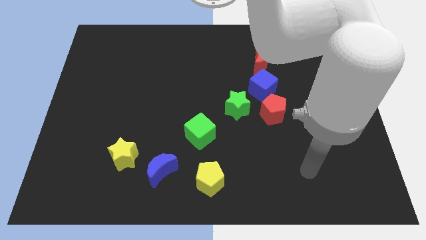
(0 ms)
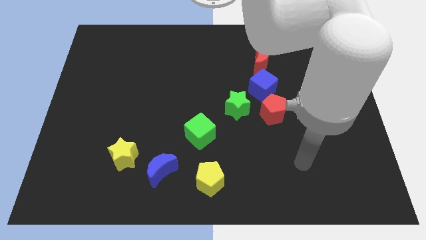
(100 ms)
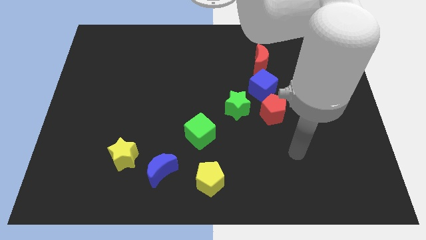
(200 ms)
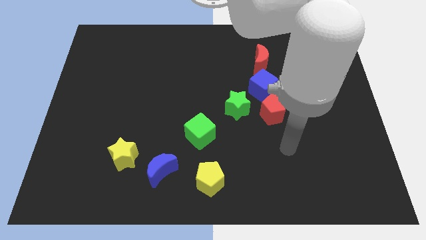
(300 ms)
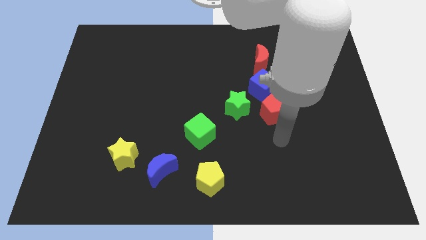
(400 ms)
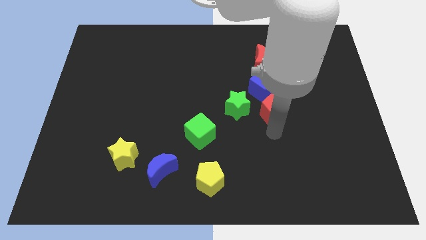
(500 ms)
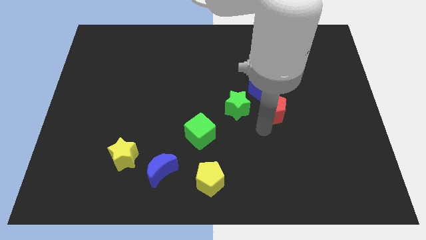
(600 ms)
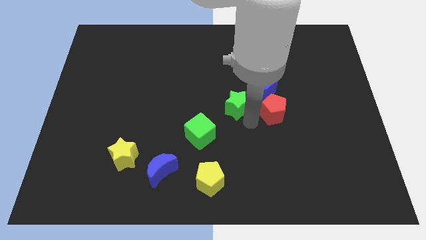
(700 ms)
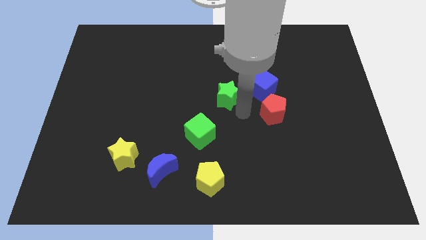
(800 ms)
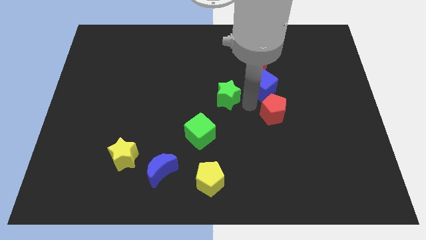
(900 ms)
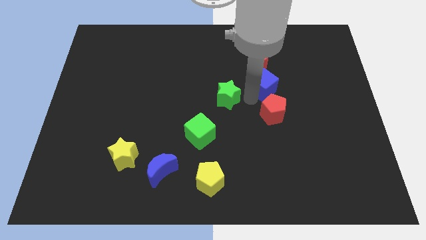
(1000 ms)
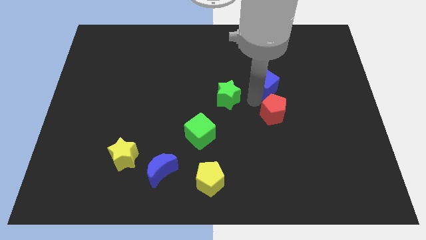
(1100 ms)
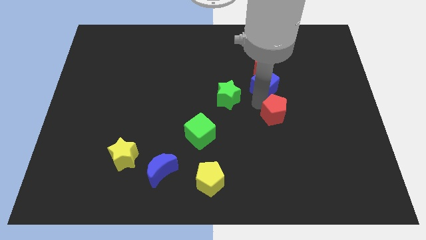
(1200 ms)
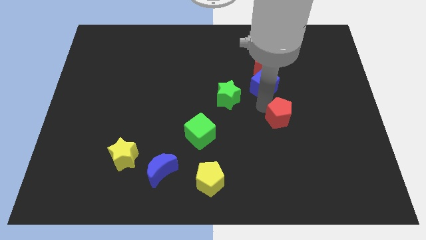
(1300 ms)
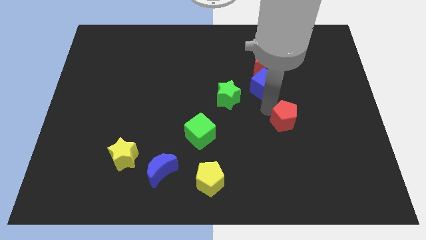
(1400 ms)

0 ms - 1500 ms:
separate the red pentagon from the blue cube and green star

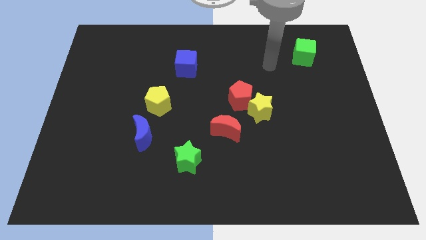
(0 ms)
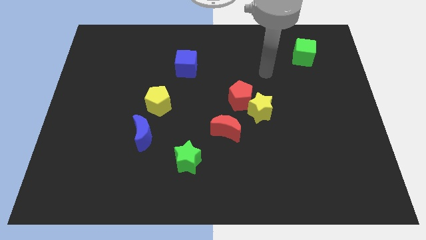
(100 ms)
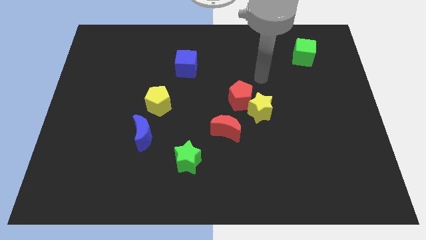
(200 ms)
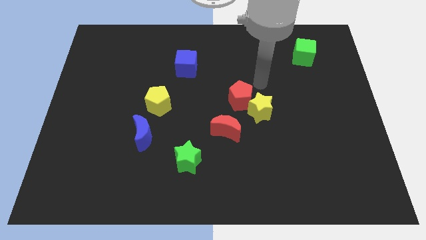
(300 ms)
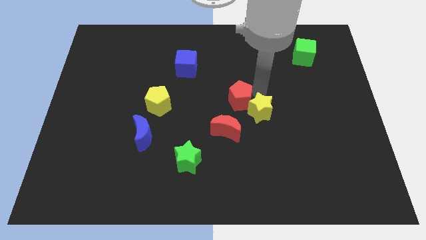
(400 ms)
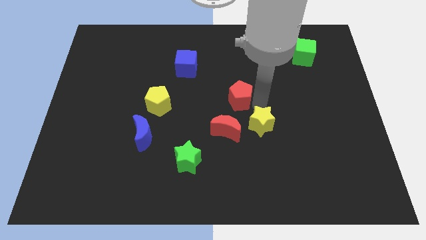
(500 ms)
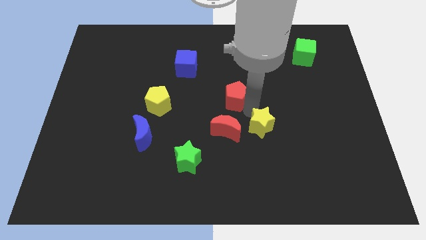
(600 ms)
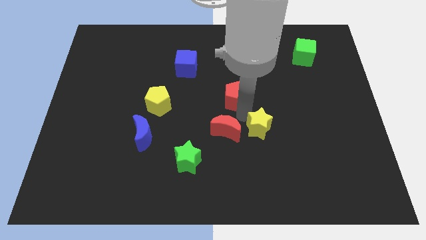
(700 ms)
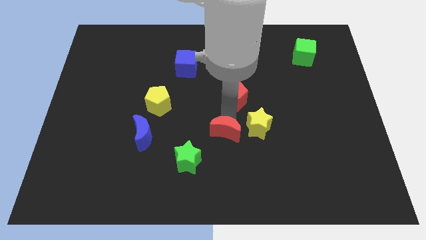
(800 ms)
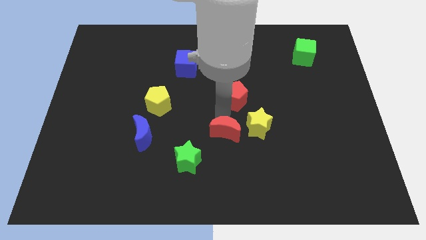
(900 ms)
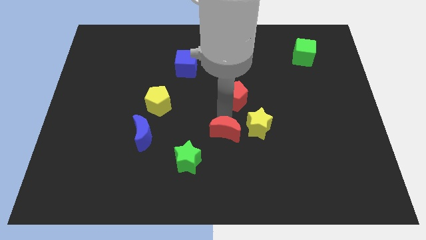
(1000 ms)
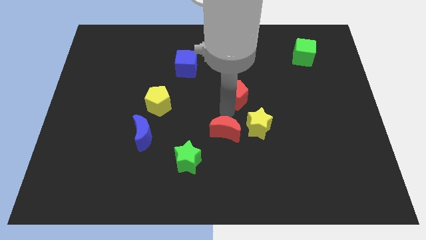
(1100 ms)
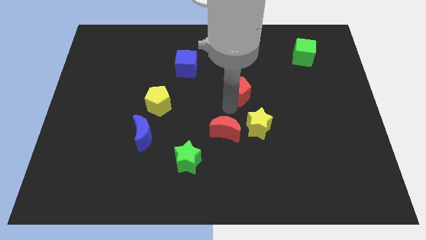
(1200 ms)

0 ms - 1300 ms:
move the red pentagon away from the yellow star and red moon

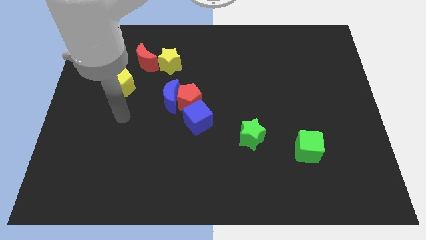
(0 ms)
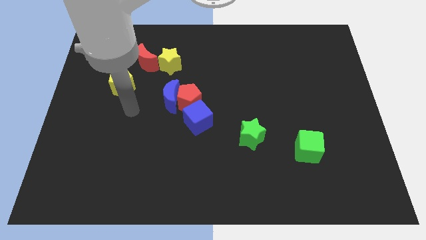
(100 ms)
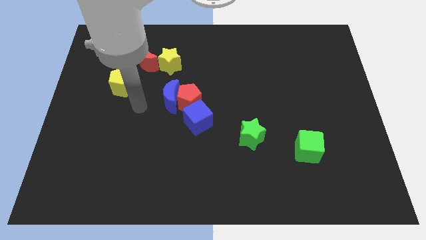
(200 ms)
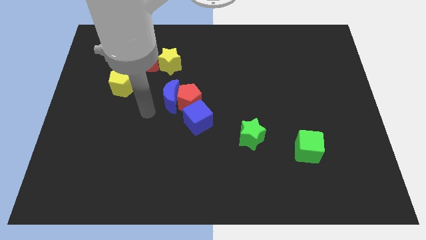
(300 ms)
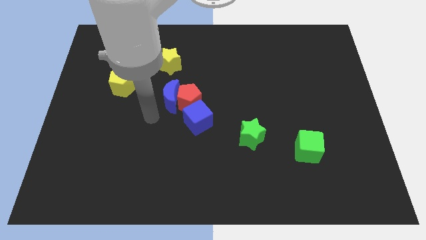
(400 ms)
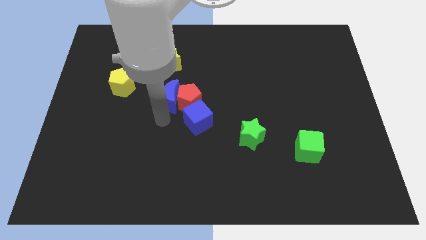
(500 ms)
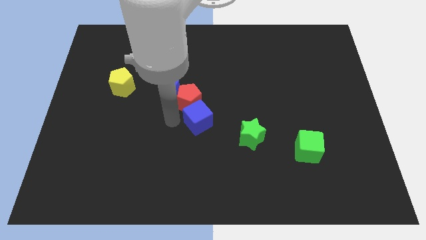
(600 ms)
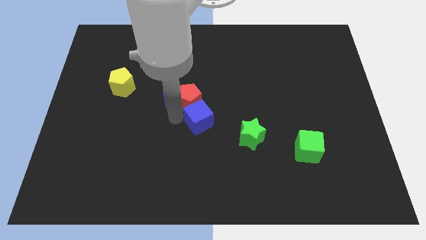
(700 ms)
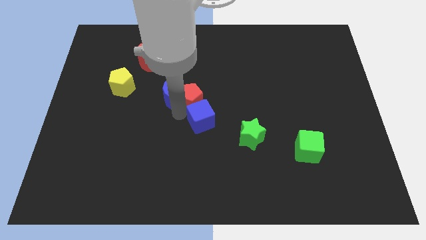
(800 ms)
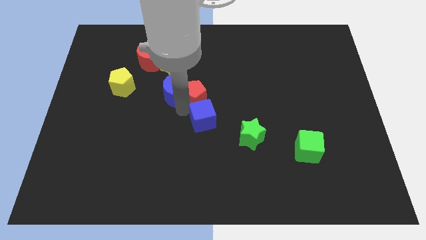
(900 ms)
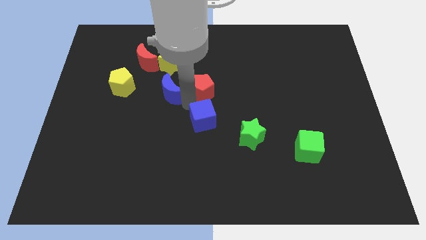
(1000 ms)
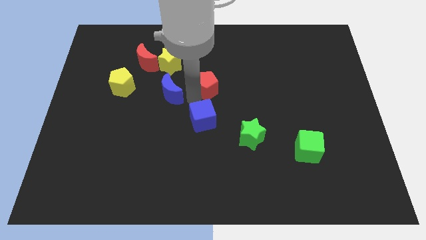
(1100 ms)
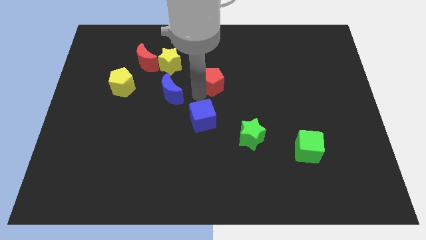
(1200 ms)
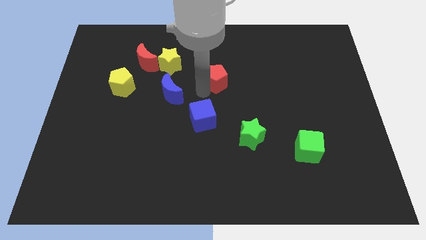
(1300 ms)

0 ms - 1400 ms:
separate the red pentagon from the blue moon and blue cube

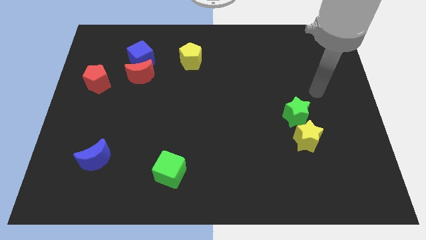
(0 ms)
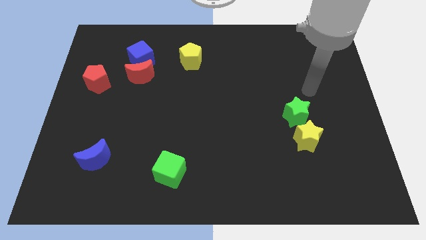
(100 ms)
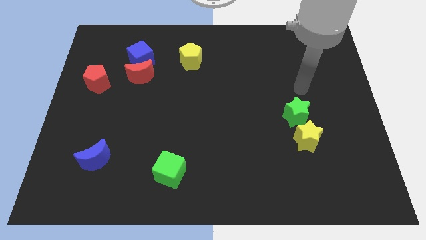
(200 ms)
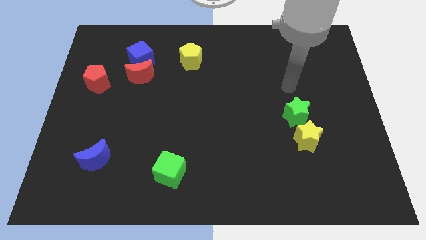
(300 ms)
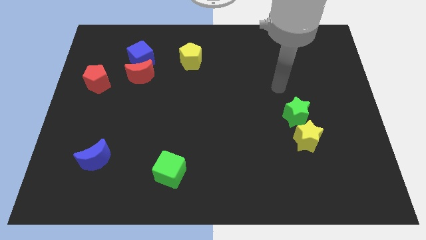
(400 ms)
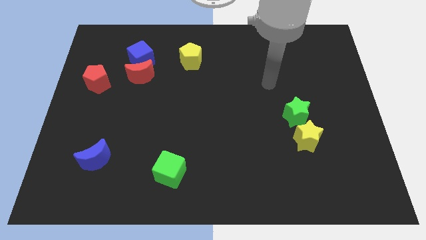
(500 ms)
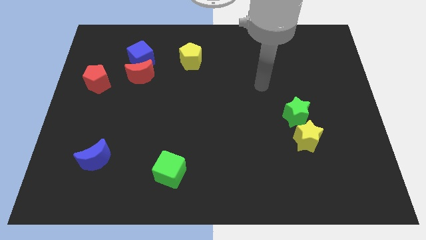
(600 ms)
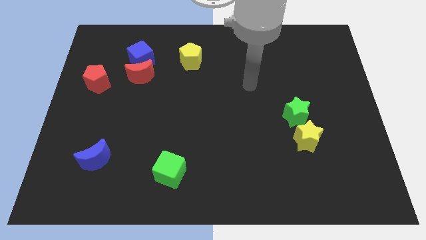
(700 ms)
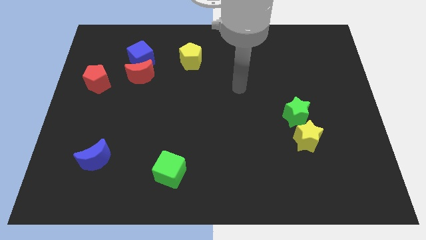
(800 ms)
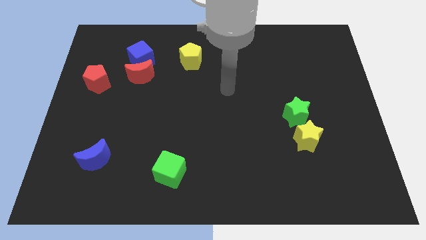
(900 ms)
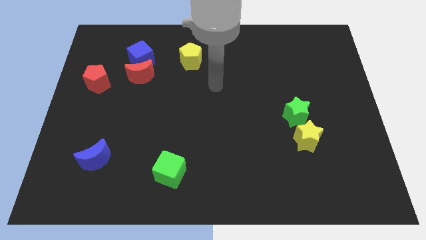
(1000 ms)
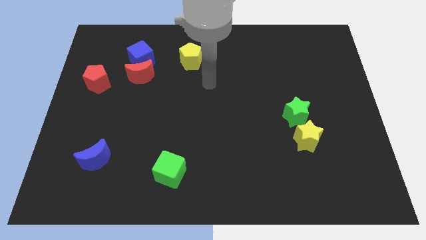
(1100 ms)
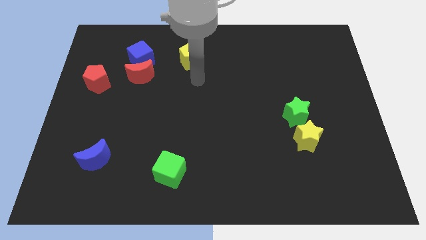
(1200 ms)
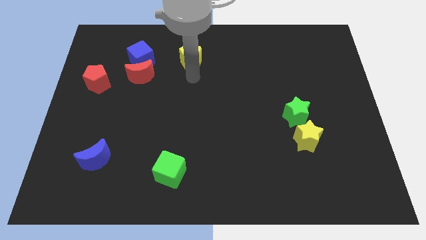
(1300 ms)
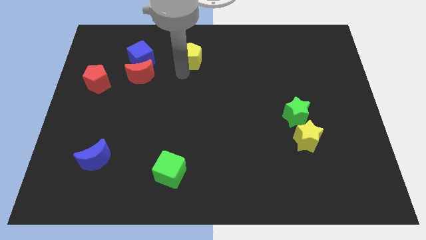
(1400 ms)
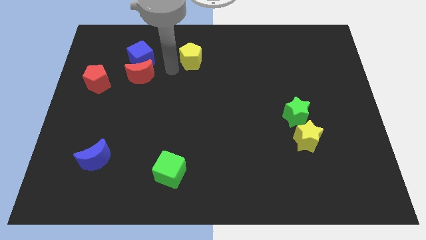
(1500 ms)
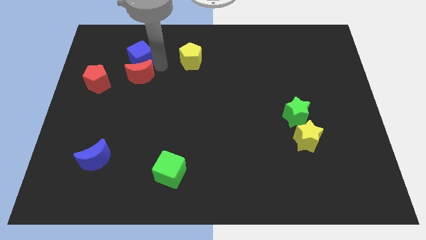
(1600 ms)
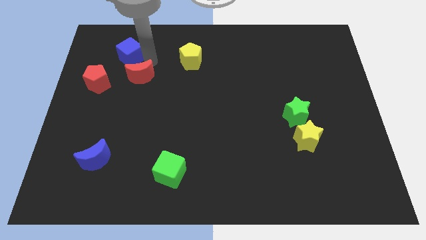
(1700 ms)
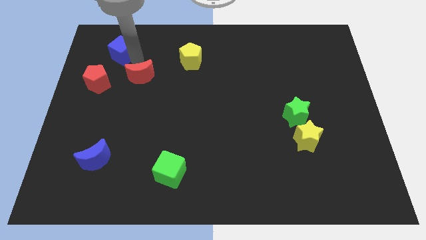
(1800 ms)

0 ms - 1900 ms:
pull the red moon apart from the blue cube

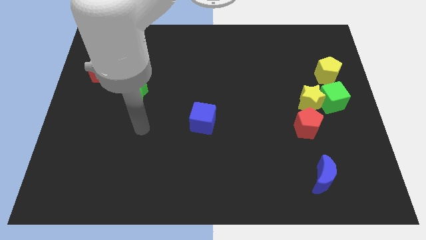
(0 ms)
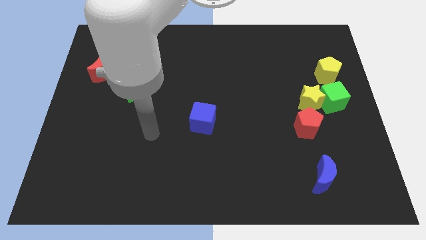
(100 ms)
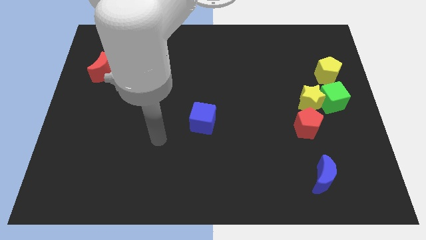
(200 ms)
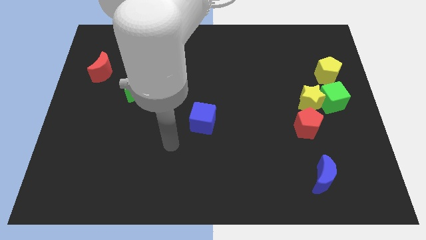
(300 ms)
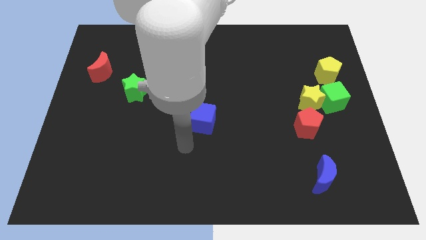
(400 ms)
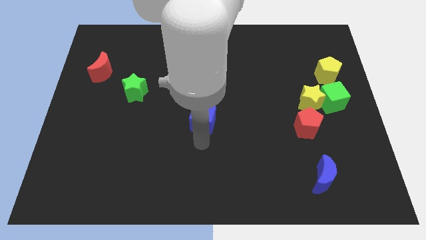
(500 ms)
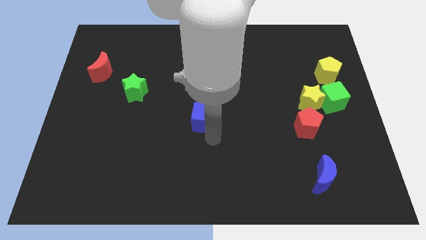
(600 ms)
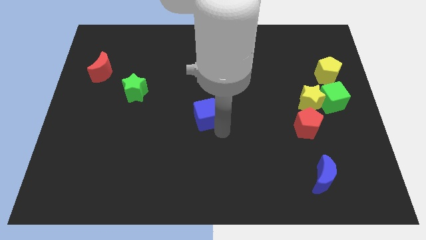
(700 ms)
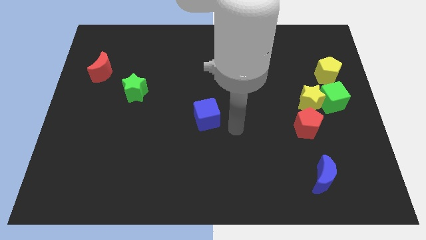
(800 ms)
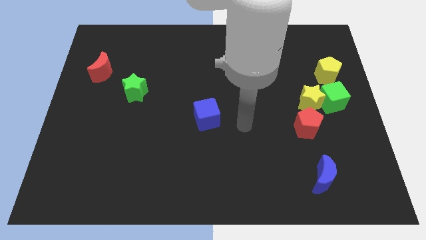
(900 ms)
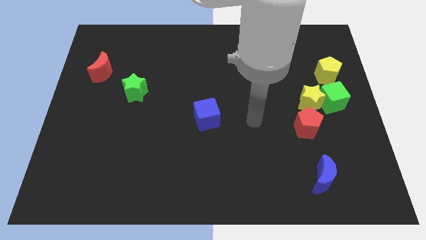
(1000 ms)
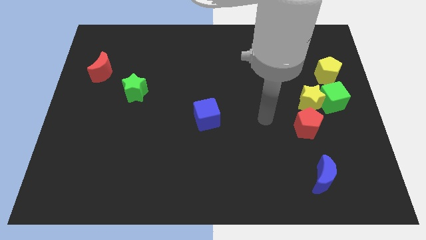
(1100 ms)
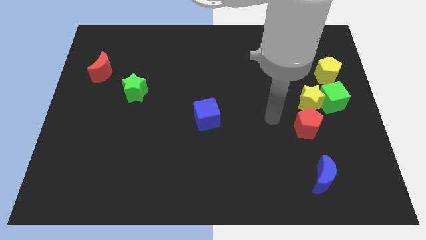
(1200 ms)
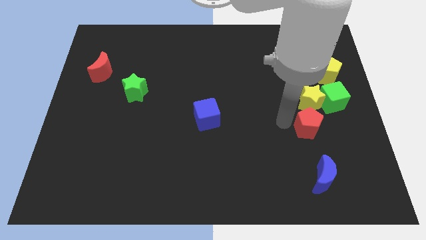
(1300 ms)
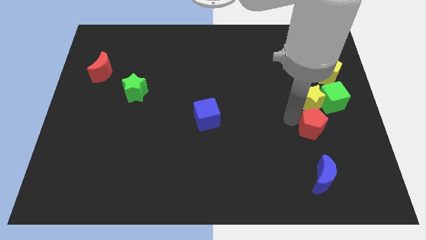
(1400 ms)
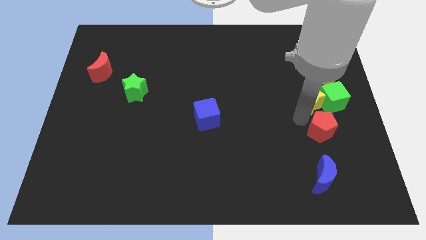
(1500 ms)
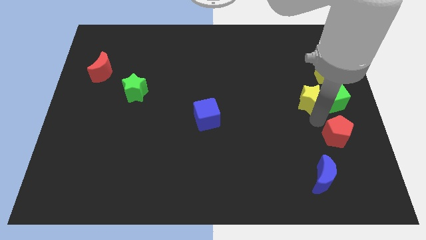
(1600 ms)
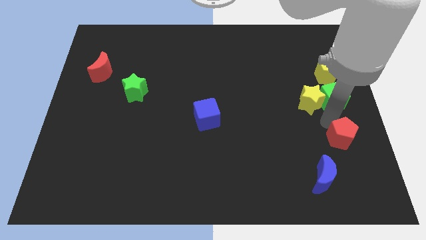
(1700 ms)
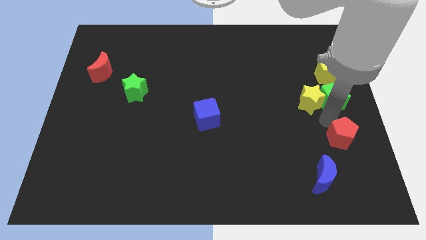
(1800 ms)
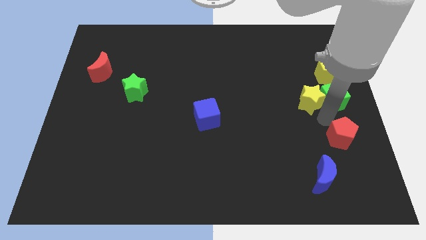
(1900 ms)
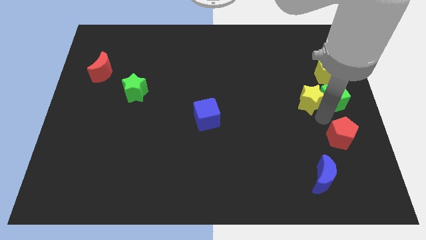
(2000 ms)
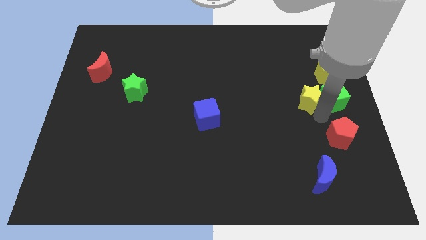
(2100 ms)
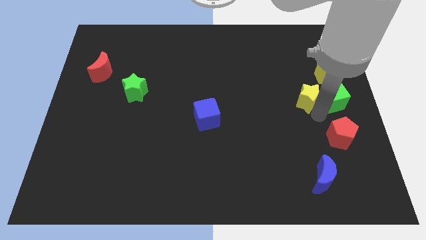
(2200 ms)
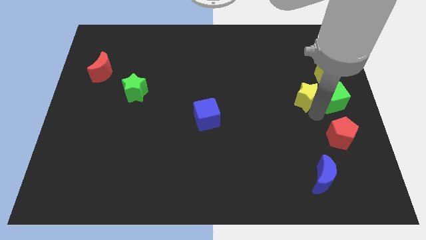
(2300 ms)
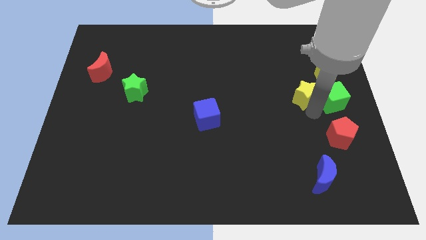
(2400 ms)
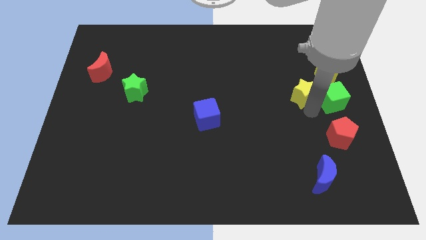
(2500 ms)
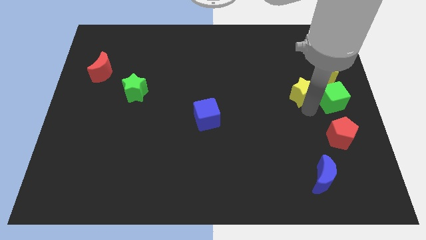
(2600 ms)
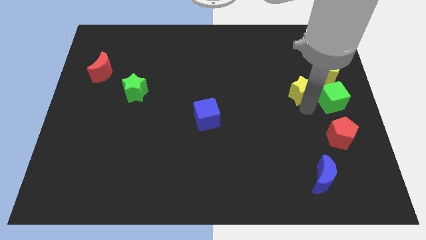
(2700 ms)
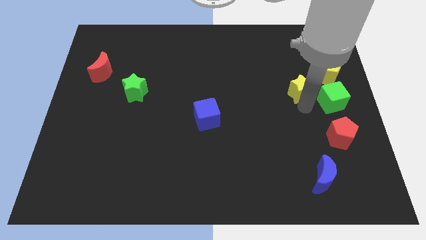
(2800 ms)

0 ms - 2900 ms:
move the yellow star away from the green cube and red pentagon

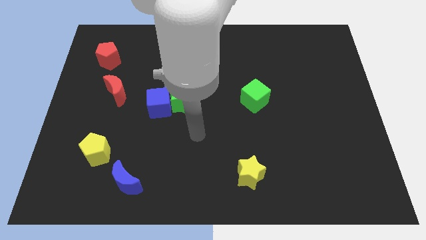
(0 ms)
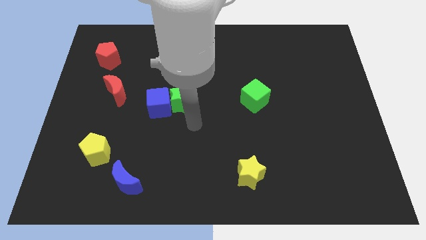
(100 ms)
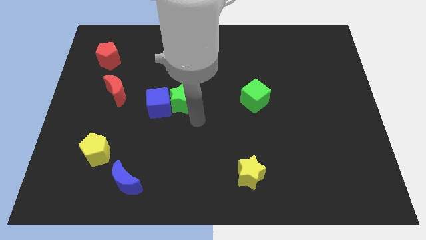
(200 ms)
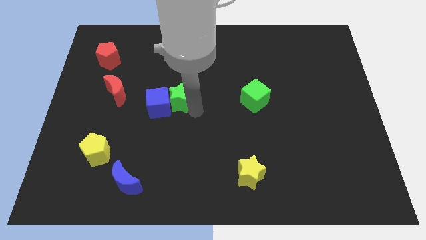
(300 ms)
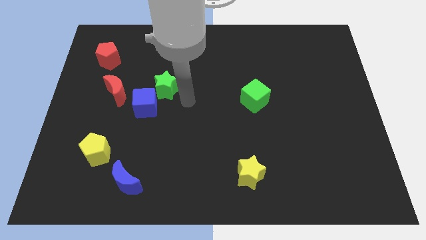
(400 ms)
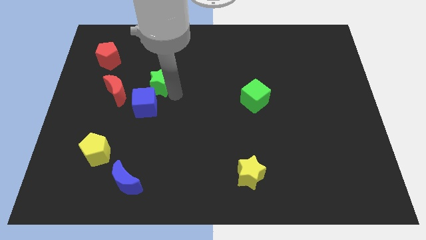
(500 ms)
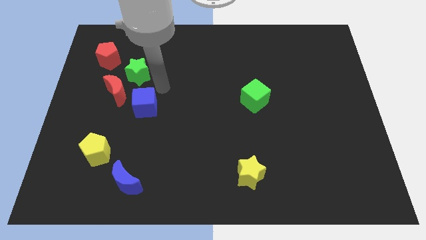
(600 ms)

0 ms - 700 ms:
pull the blue cube apart from the green star
